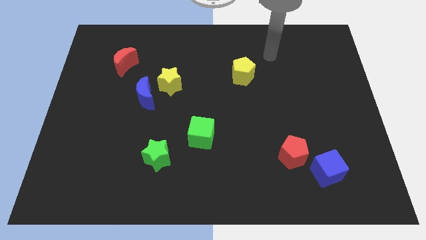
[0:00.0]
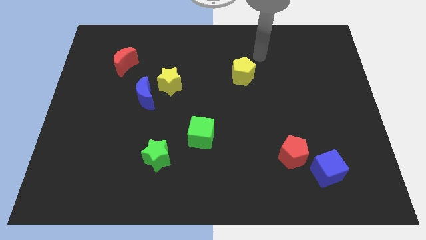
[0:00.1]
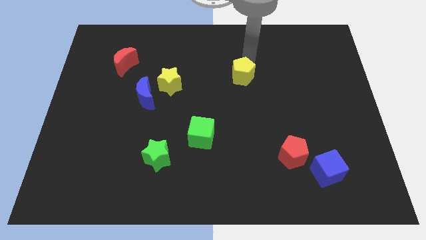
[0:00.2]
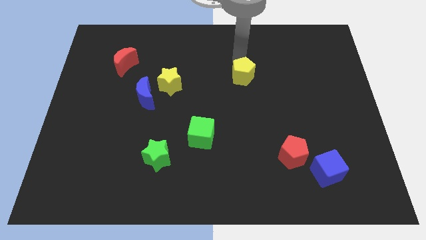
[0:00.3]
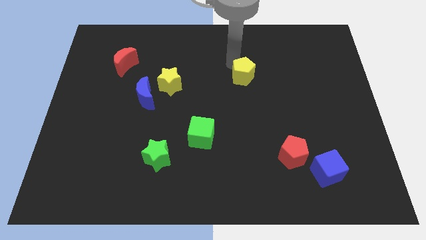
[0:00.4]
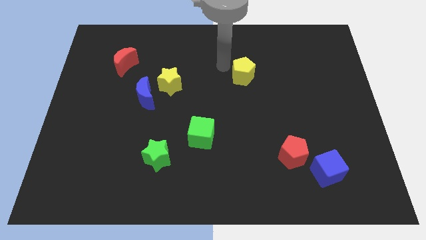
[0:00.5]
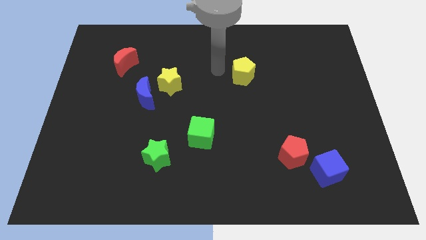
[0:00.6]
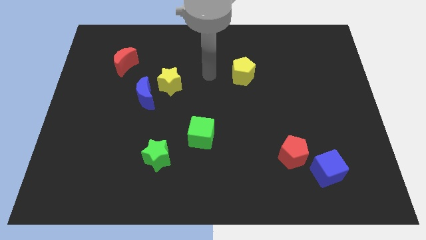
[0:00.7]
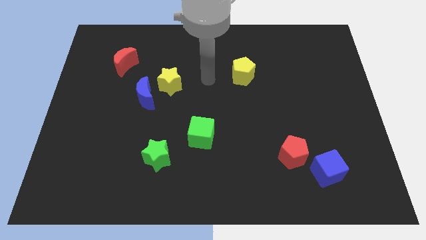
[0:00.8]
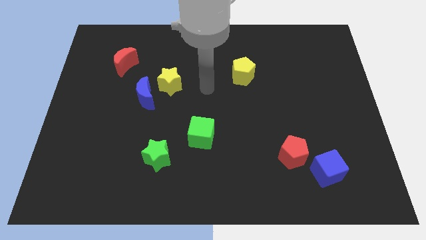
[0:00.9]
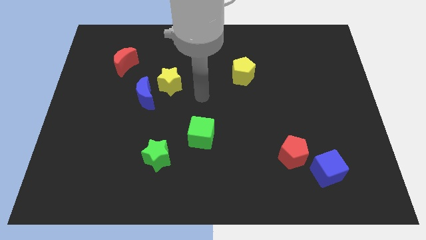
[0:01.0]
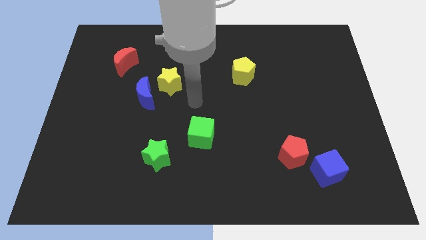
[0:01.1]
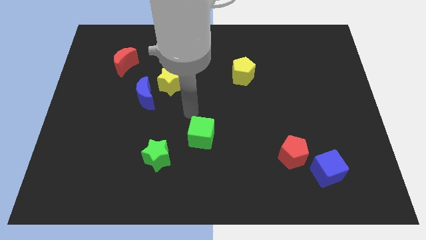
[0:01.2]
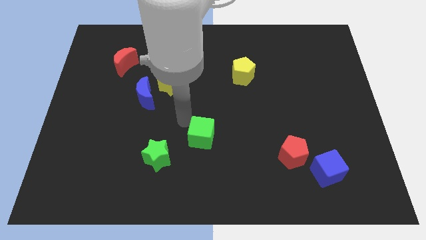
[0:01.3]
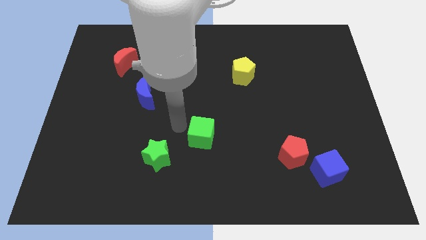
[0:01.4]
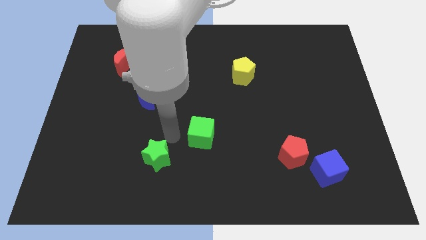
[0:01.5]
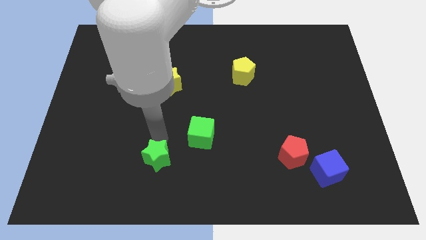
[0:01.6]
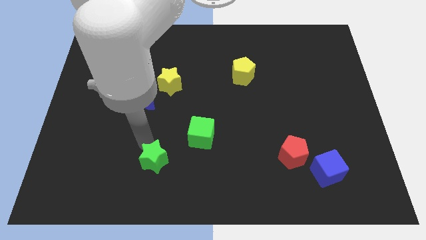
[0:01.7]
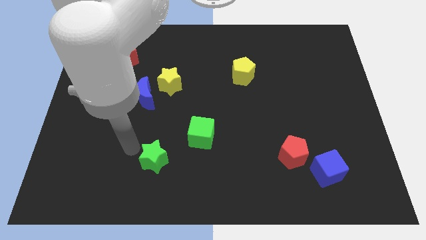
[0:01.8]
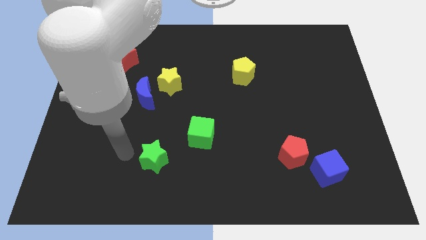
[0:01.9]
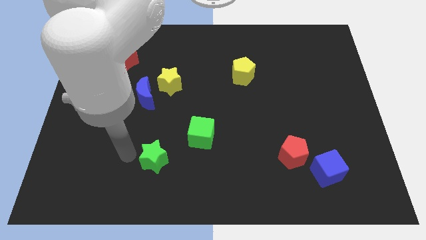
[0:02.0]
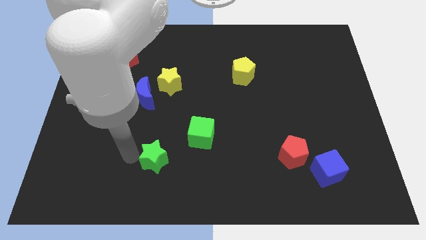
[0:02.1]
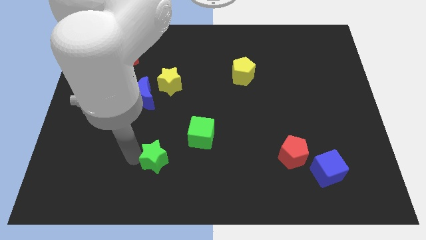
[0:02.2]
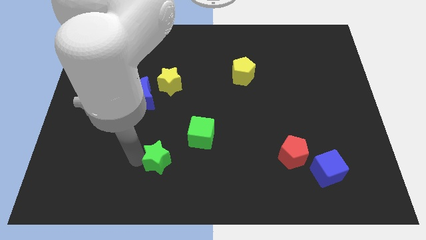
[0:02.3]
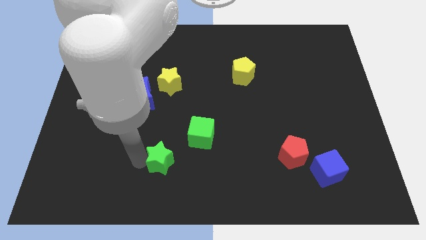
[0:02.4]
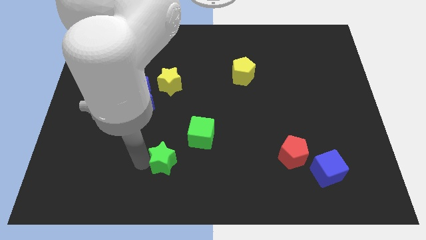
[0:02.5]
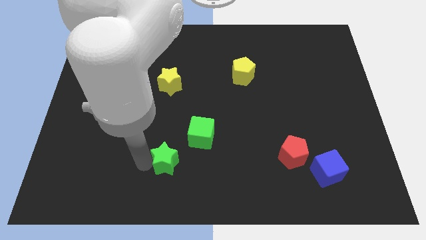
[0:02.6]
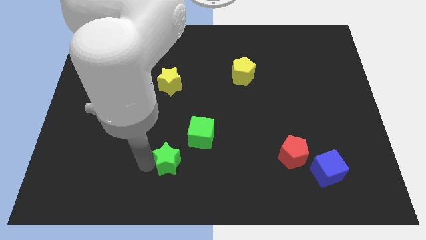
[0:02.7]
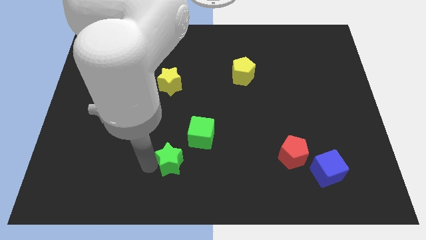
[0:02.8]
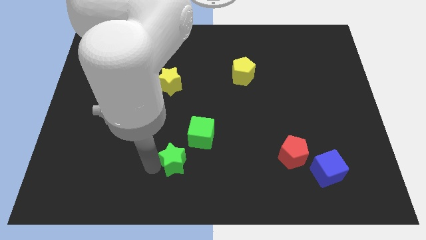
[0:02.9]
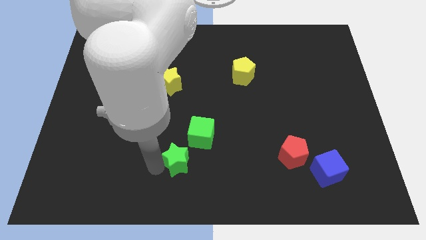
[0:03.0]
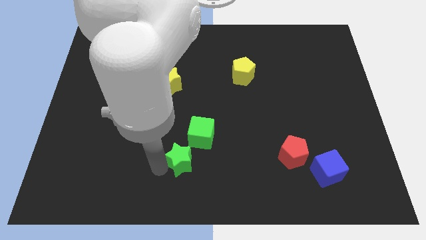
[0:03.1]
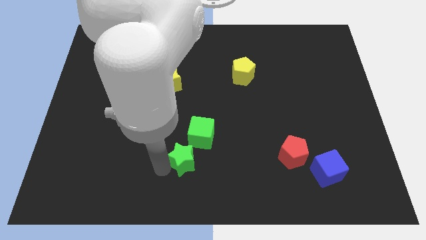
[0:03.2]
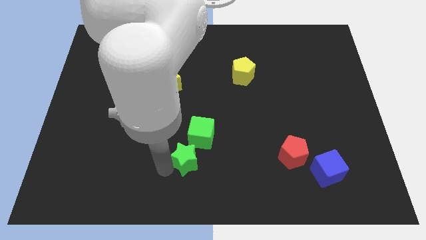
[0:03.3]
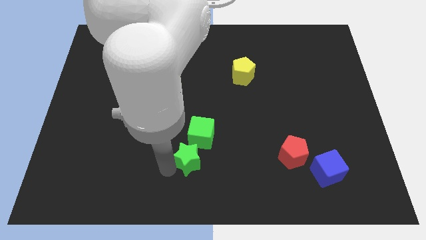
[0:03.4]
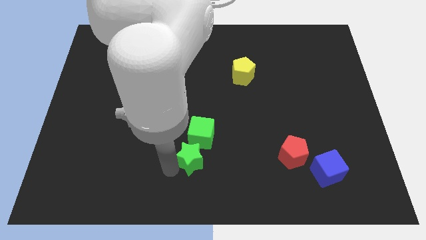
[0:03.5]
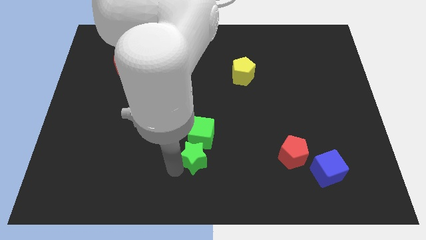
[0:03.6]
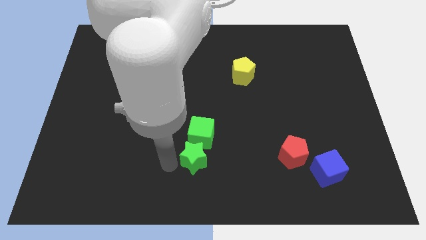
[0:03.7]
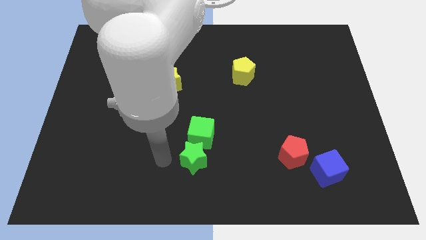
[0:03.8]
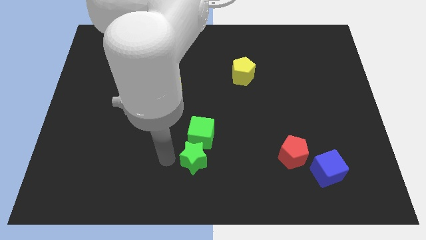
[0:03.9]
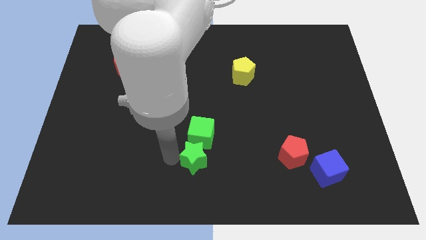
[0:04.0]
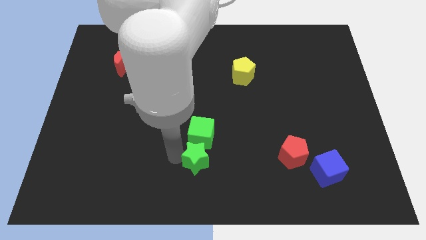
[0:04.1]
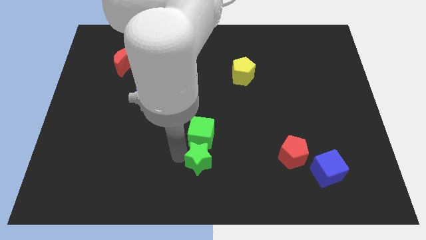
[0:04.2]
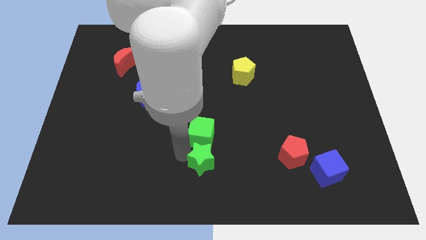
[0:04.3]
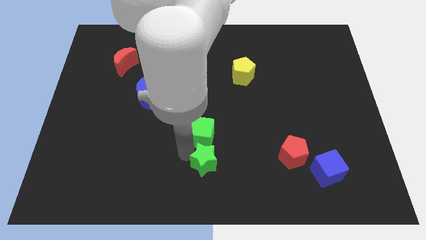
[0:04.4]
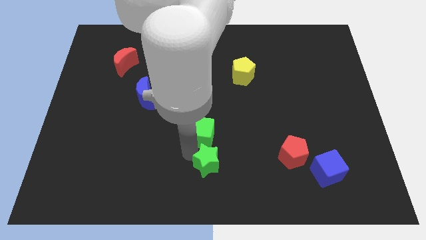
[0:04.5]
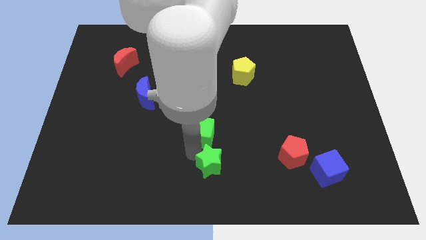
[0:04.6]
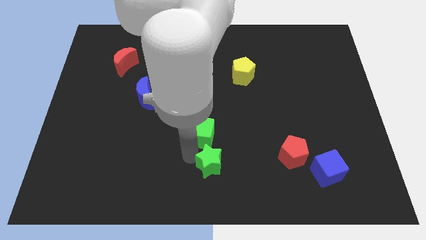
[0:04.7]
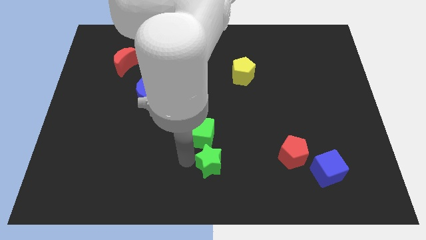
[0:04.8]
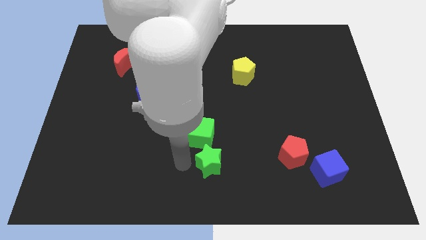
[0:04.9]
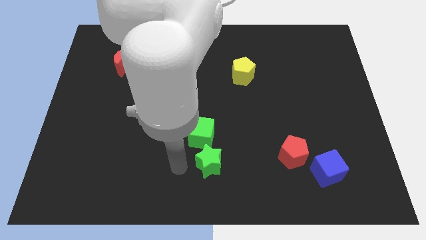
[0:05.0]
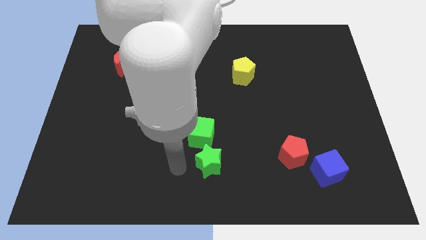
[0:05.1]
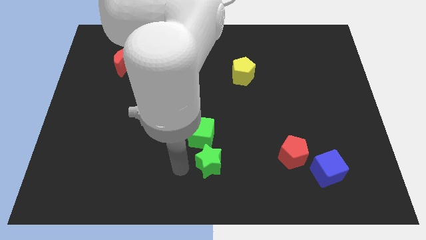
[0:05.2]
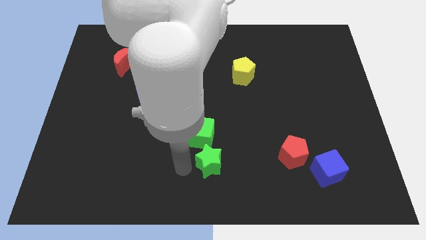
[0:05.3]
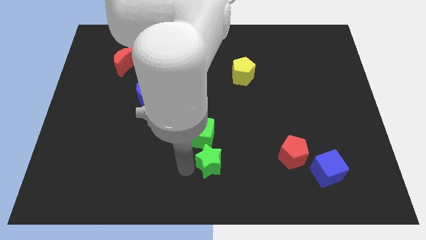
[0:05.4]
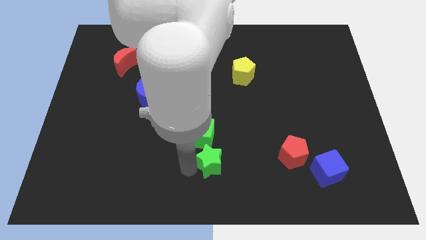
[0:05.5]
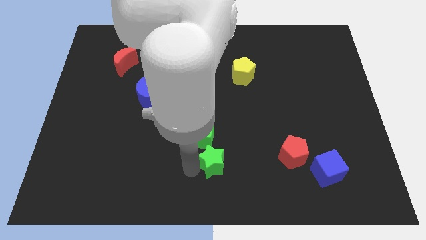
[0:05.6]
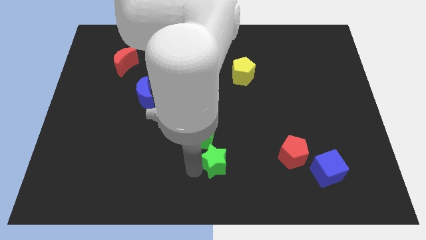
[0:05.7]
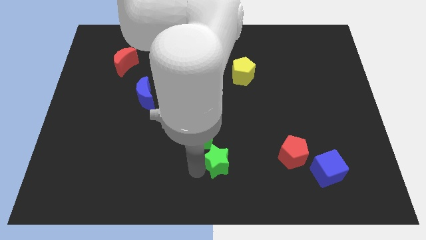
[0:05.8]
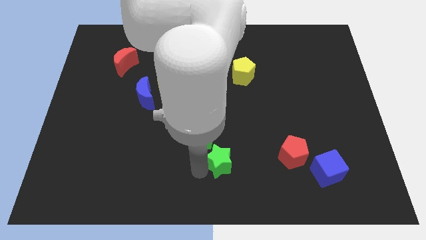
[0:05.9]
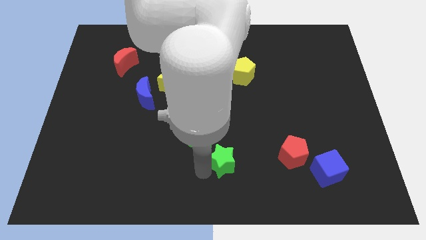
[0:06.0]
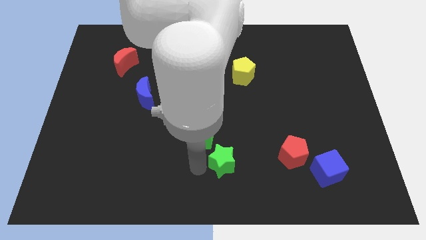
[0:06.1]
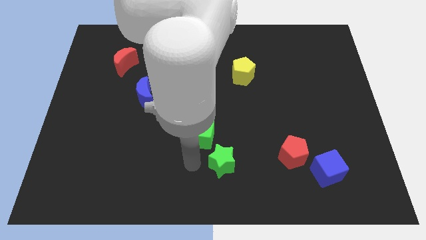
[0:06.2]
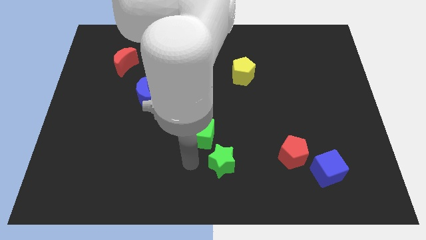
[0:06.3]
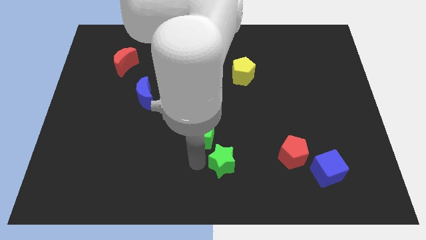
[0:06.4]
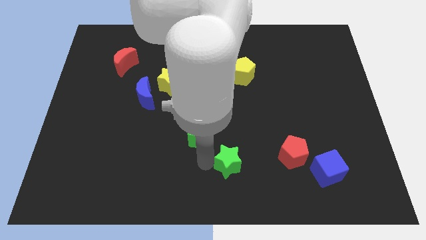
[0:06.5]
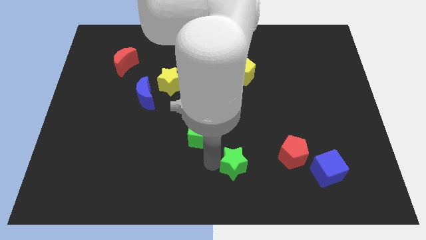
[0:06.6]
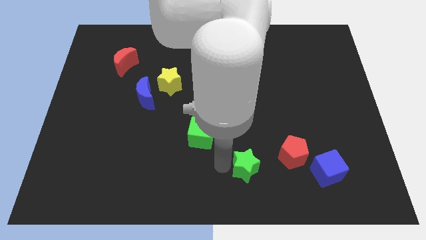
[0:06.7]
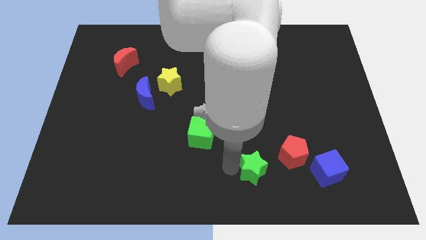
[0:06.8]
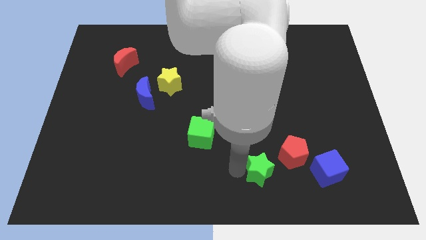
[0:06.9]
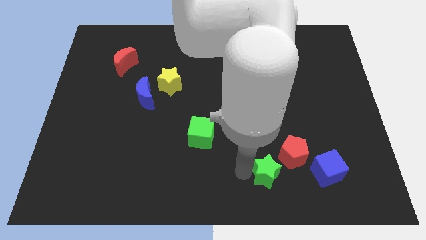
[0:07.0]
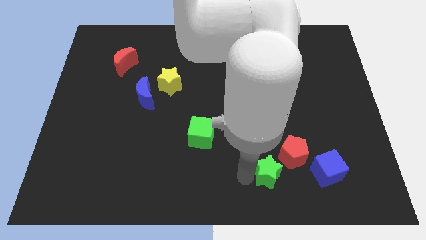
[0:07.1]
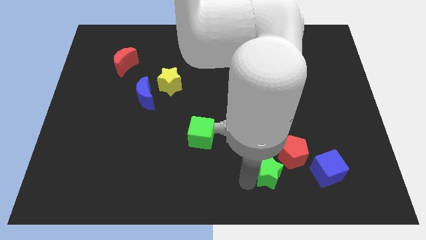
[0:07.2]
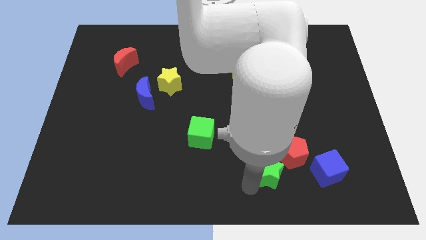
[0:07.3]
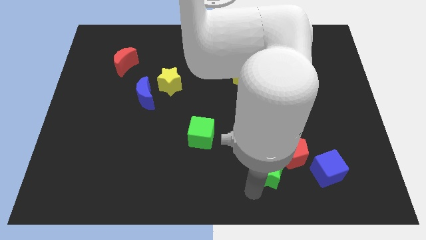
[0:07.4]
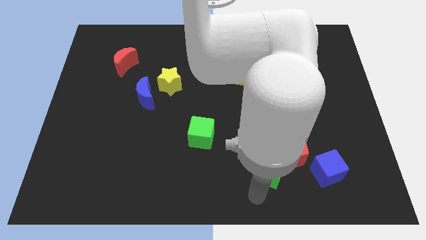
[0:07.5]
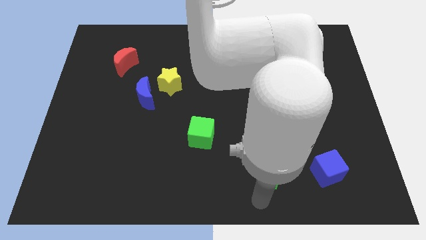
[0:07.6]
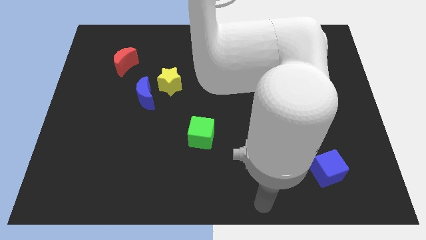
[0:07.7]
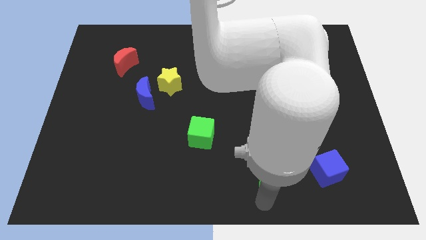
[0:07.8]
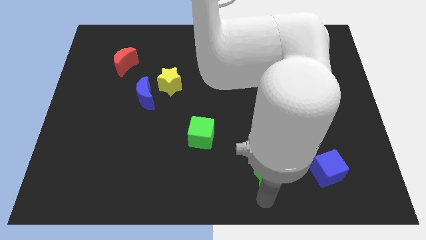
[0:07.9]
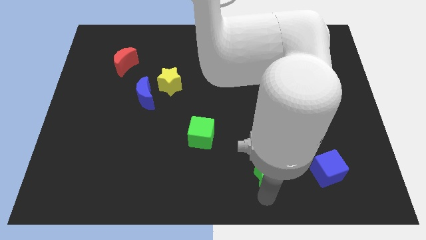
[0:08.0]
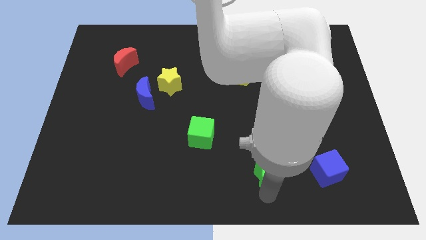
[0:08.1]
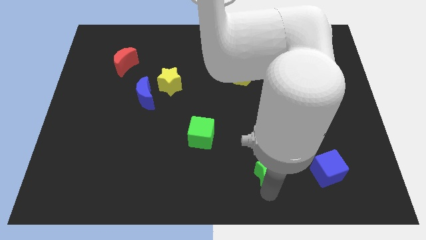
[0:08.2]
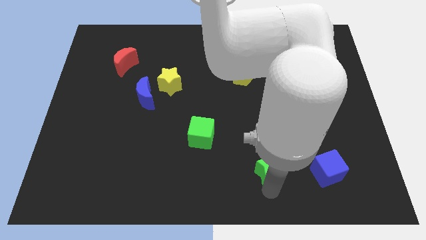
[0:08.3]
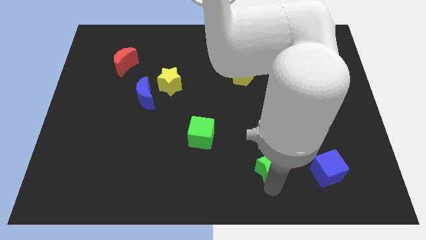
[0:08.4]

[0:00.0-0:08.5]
move the green star towards the red pentagon
